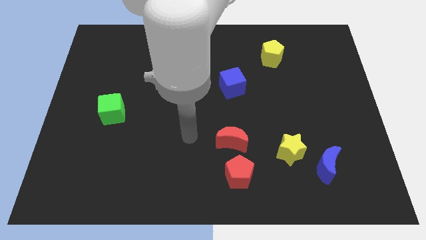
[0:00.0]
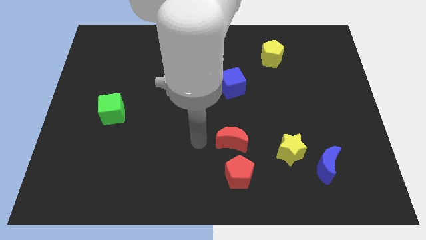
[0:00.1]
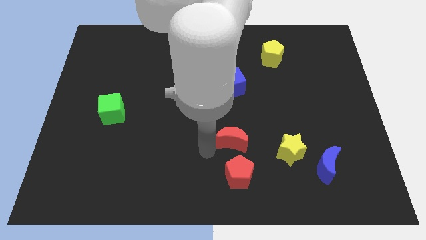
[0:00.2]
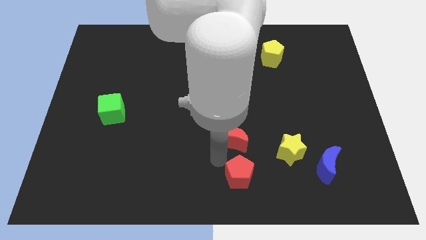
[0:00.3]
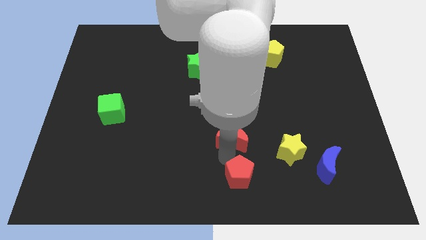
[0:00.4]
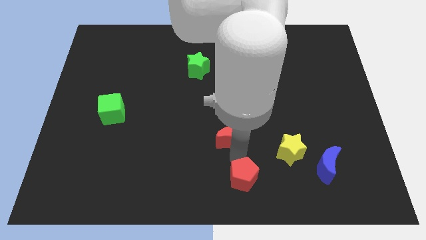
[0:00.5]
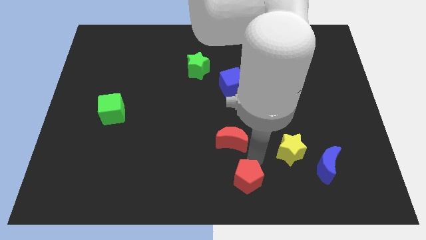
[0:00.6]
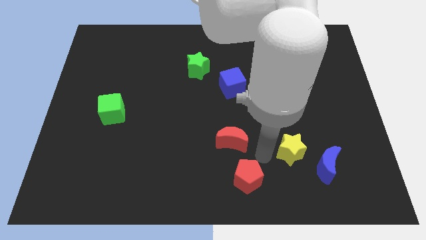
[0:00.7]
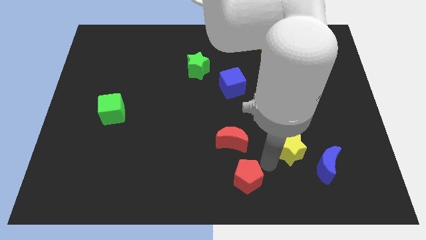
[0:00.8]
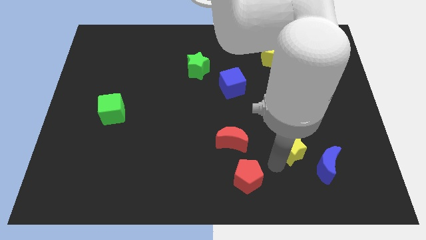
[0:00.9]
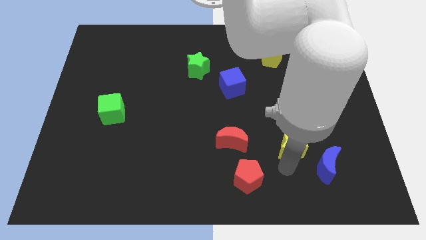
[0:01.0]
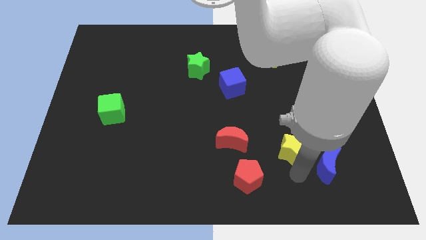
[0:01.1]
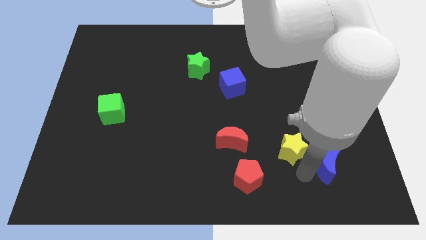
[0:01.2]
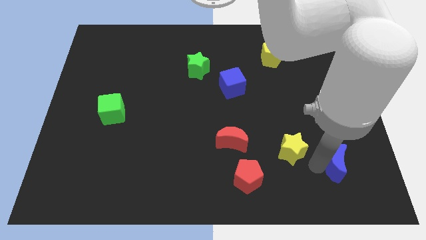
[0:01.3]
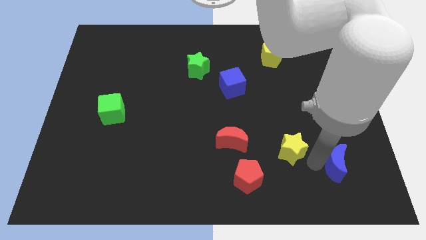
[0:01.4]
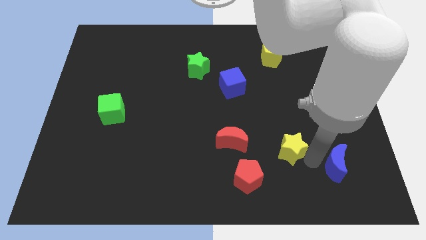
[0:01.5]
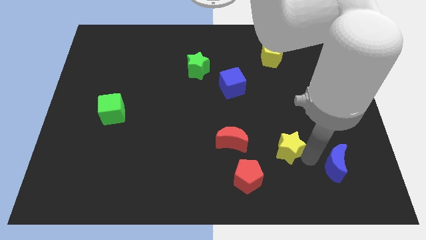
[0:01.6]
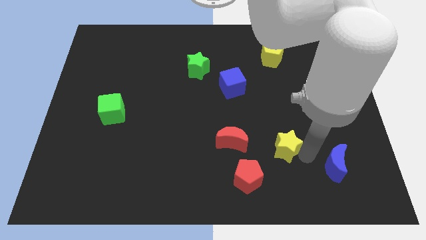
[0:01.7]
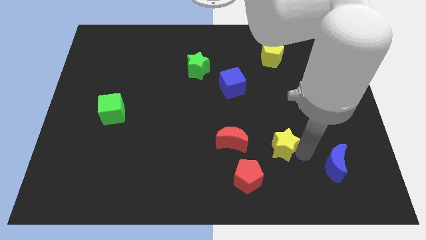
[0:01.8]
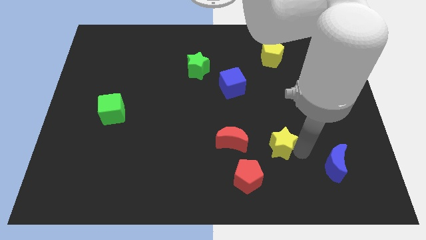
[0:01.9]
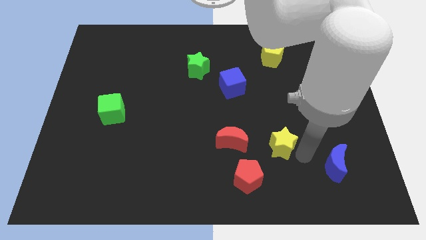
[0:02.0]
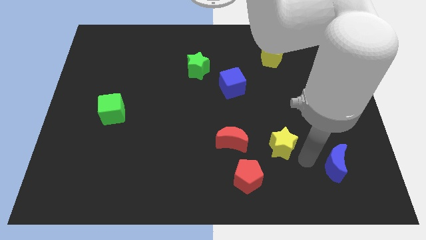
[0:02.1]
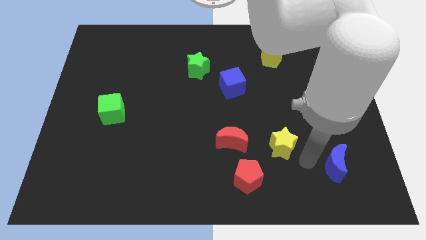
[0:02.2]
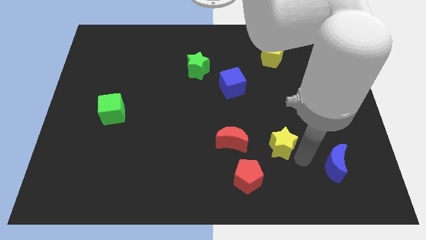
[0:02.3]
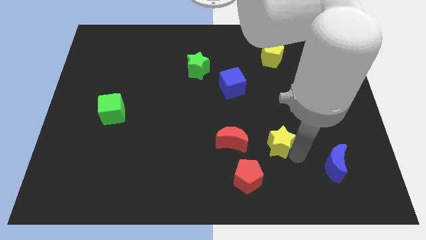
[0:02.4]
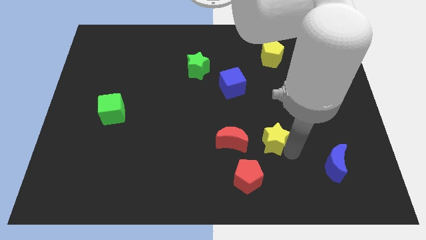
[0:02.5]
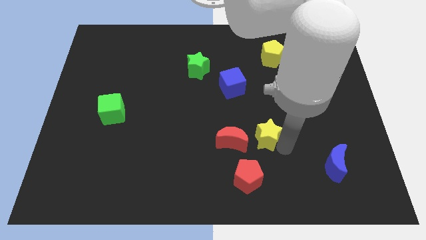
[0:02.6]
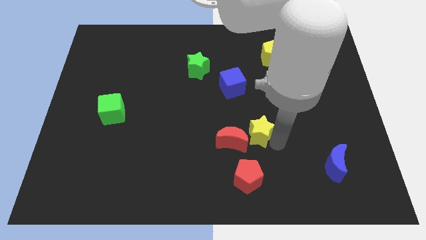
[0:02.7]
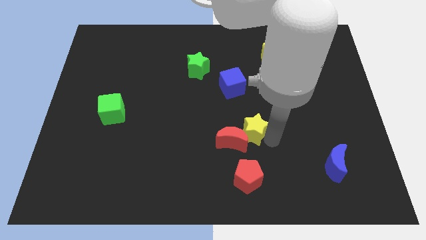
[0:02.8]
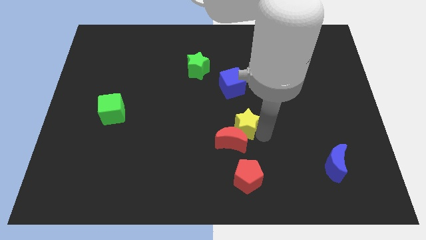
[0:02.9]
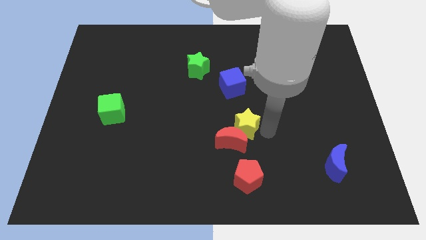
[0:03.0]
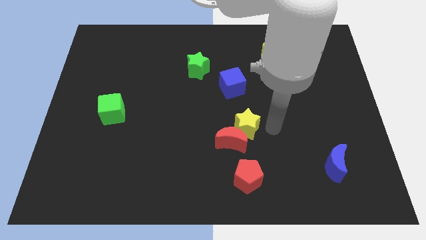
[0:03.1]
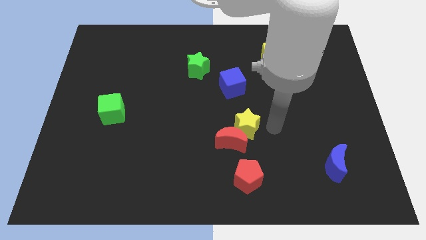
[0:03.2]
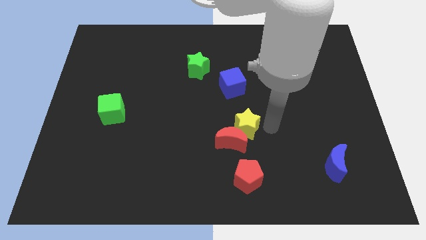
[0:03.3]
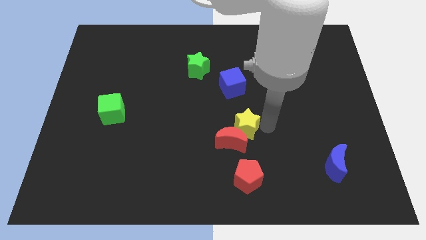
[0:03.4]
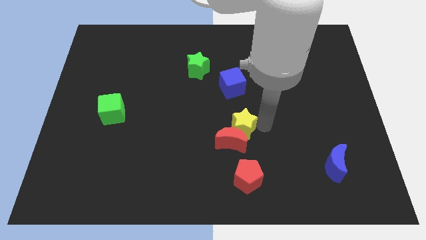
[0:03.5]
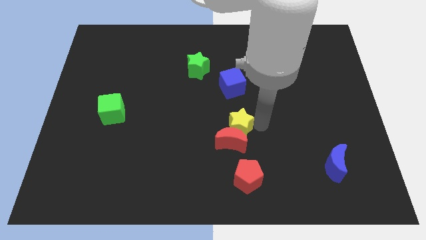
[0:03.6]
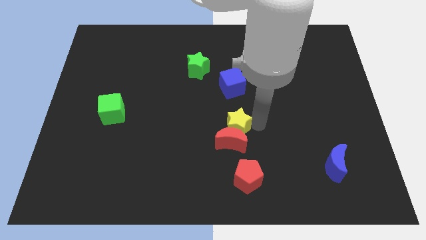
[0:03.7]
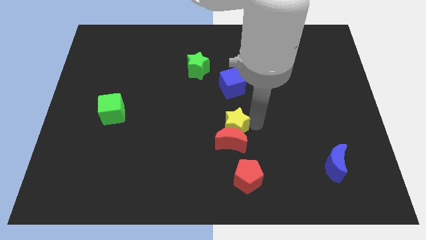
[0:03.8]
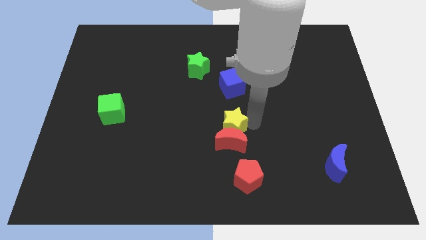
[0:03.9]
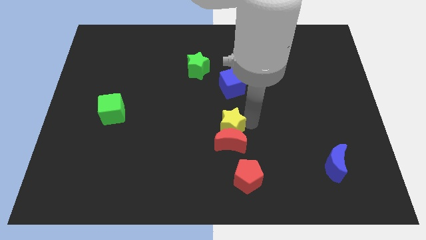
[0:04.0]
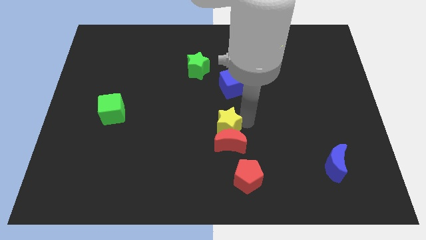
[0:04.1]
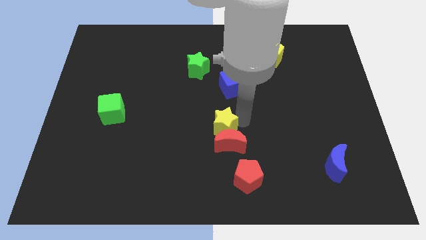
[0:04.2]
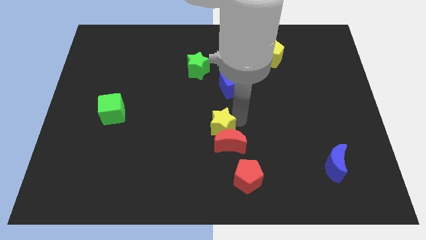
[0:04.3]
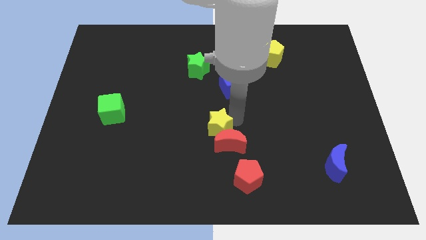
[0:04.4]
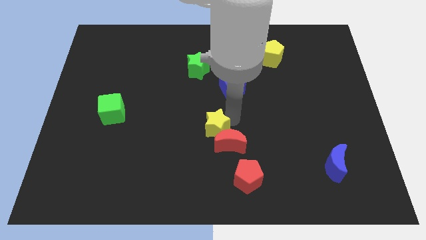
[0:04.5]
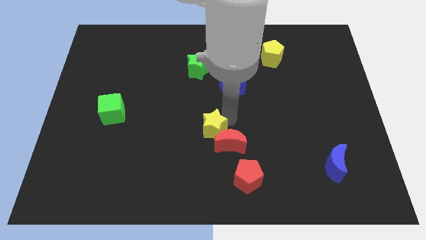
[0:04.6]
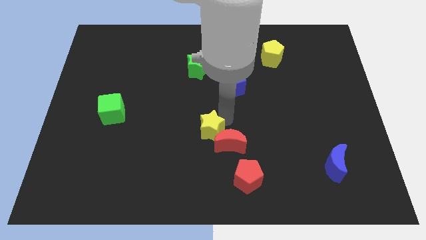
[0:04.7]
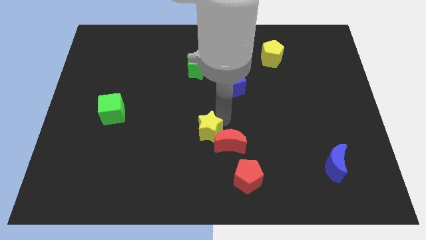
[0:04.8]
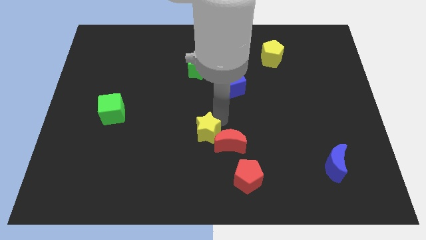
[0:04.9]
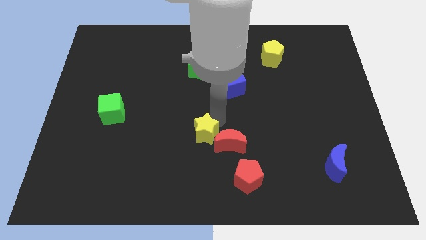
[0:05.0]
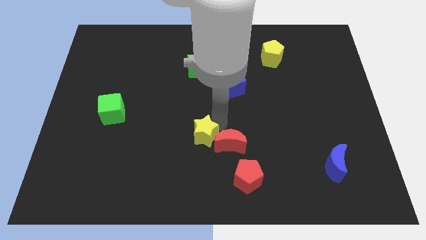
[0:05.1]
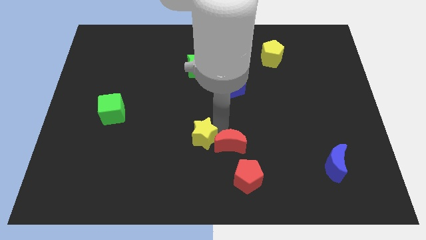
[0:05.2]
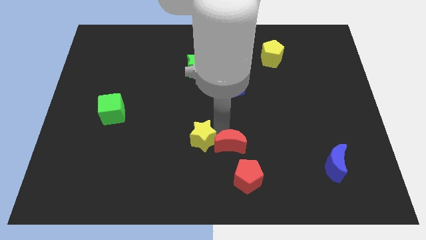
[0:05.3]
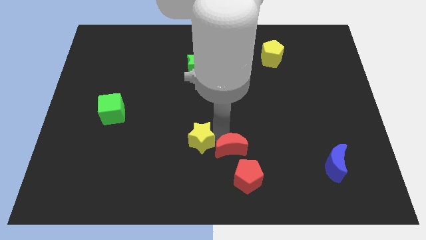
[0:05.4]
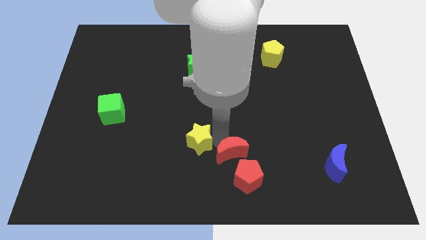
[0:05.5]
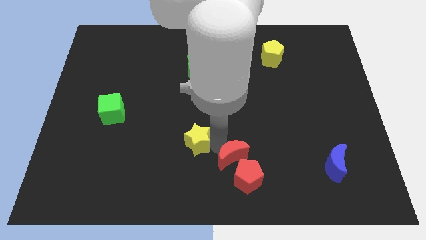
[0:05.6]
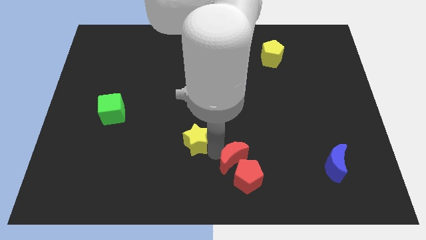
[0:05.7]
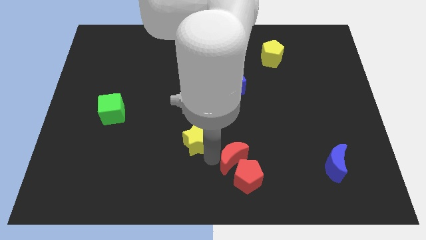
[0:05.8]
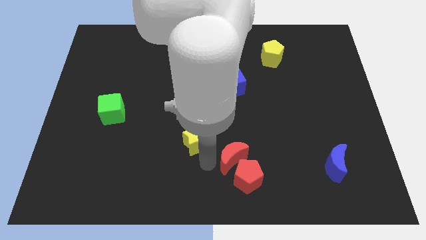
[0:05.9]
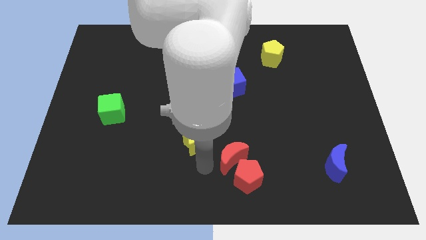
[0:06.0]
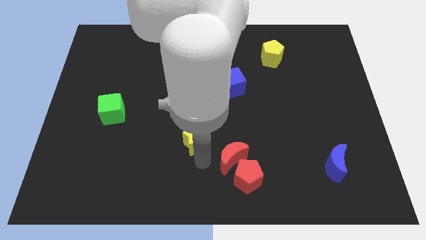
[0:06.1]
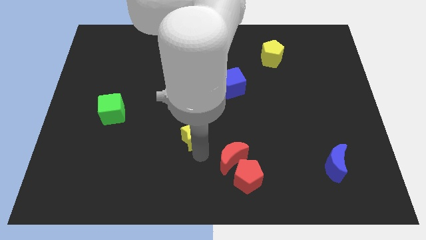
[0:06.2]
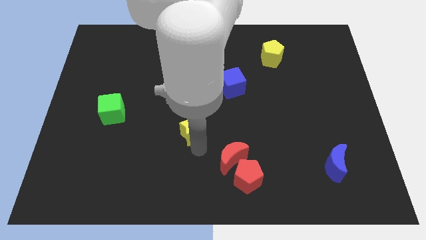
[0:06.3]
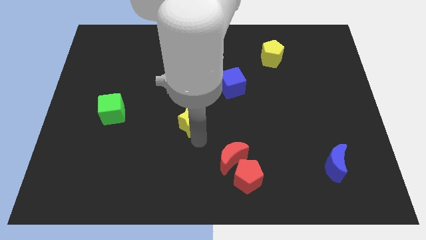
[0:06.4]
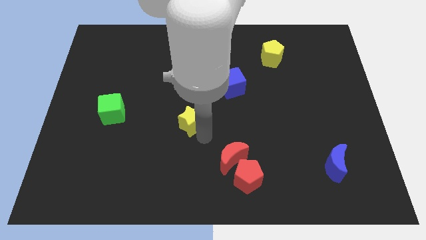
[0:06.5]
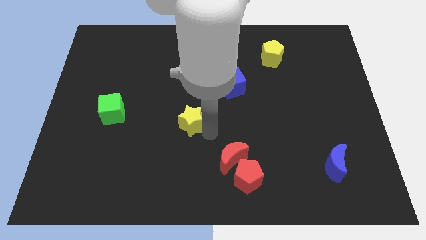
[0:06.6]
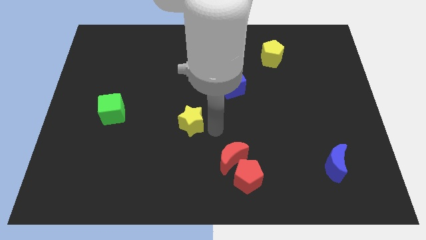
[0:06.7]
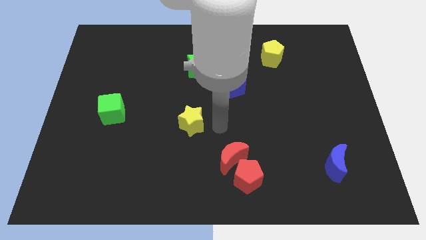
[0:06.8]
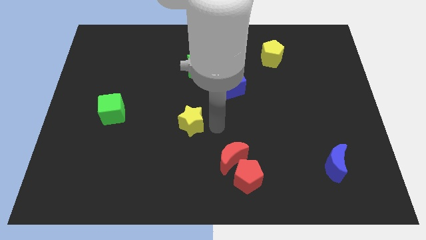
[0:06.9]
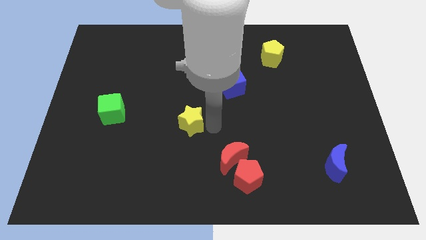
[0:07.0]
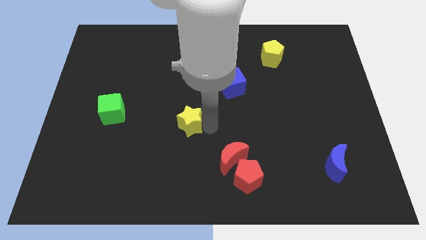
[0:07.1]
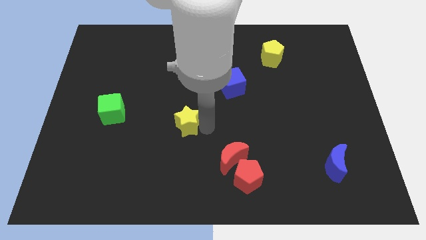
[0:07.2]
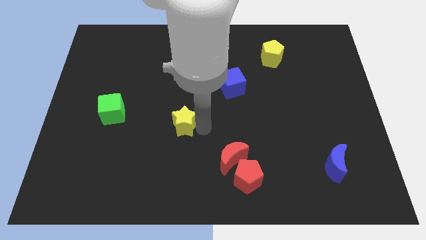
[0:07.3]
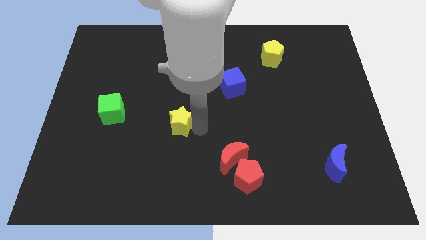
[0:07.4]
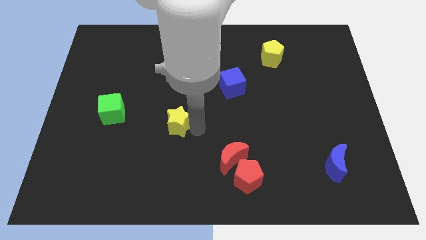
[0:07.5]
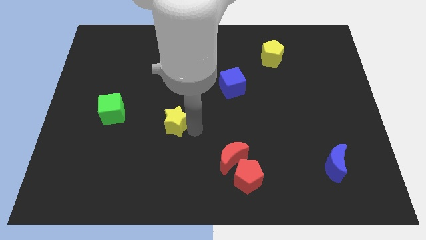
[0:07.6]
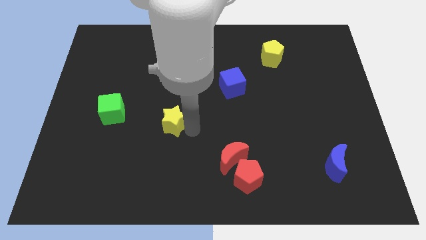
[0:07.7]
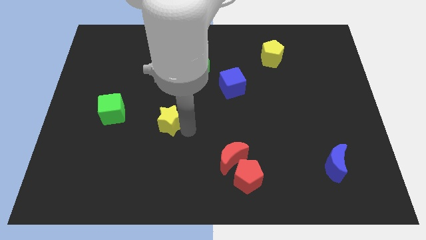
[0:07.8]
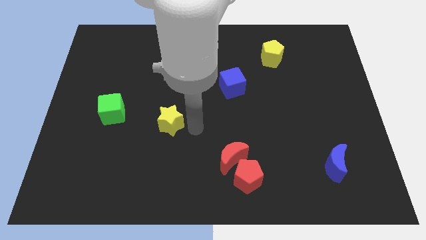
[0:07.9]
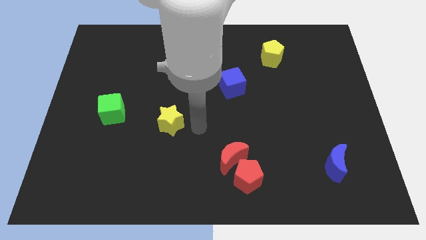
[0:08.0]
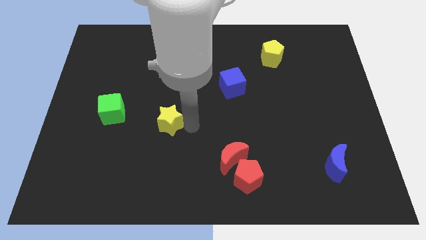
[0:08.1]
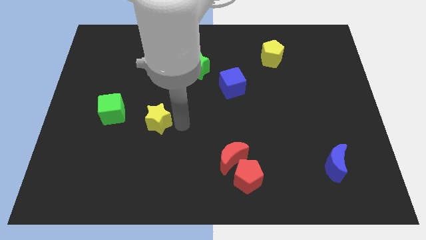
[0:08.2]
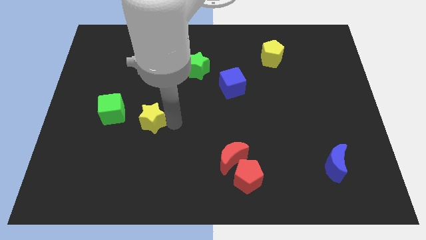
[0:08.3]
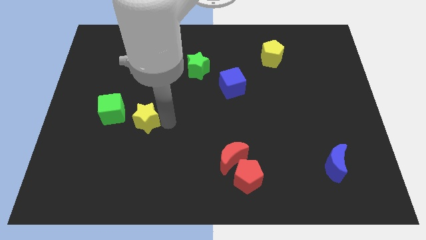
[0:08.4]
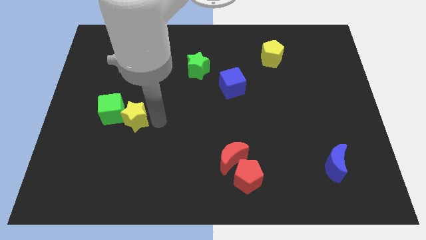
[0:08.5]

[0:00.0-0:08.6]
push the yellow star close to the green cube

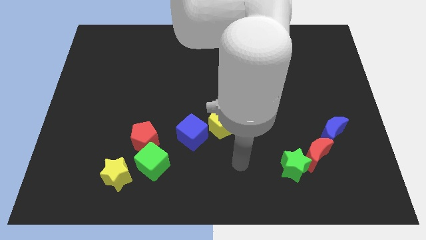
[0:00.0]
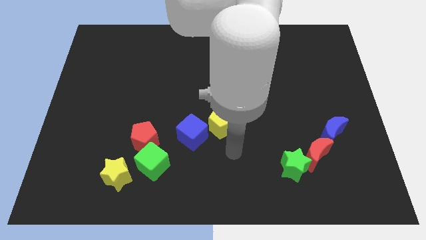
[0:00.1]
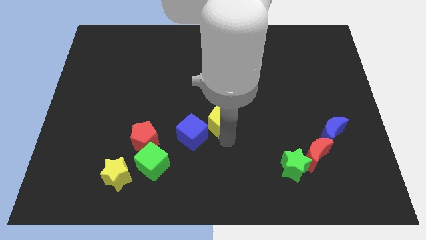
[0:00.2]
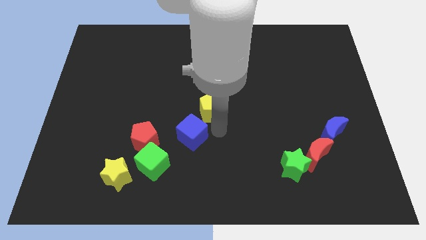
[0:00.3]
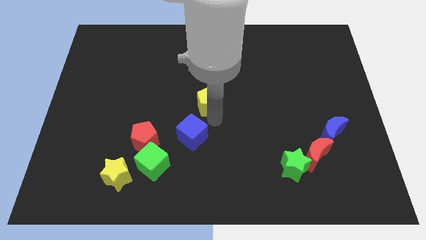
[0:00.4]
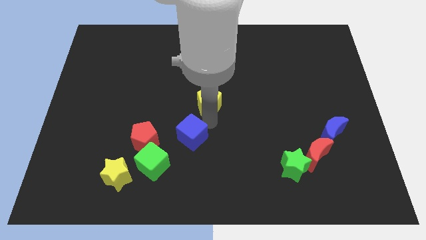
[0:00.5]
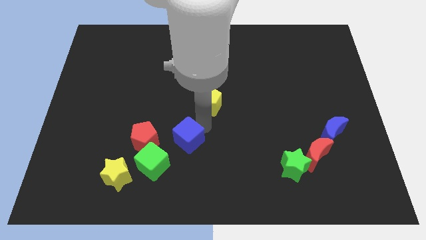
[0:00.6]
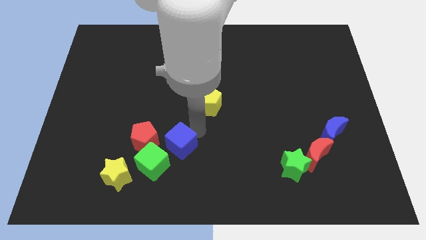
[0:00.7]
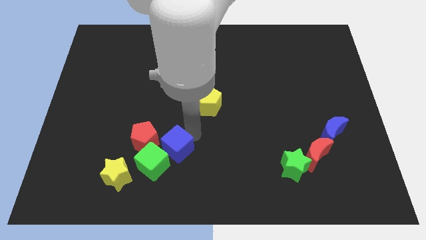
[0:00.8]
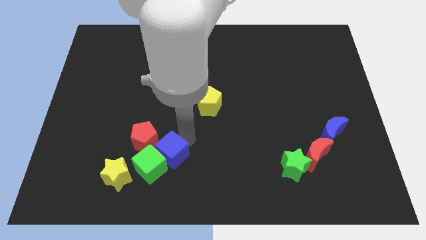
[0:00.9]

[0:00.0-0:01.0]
push the blue cube close to the green cube
